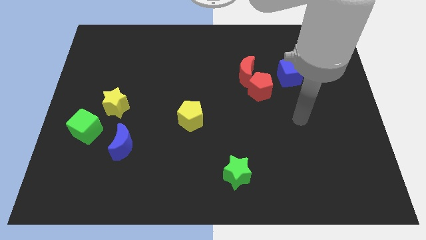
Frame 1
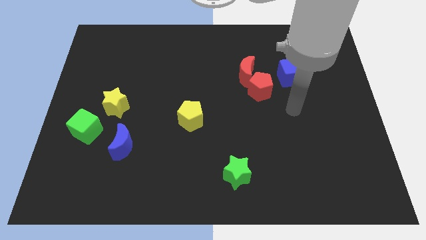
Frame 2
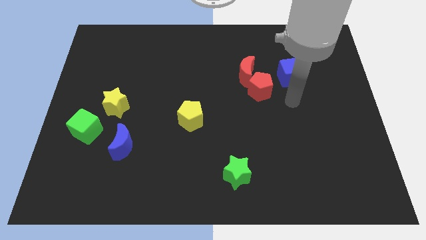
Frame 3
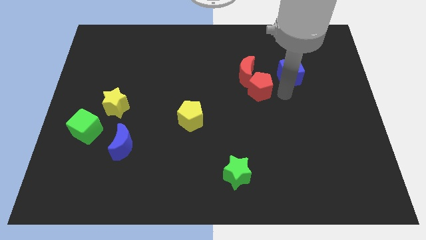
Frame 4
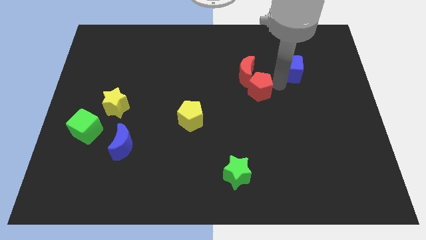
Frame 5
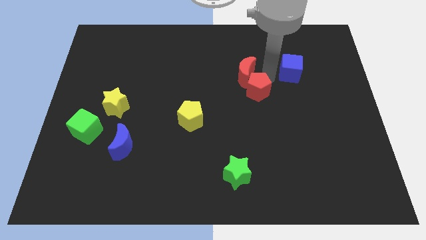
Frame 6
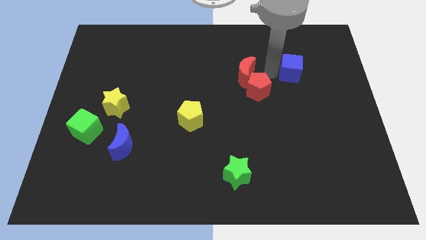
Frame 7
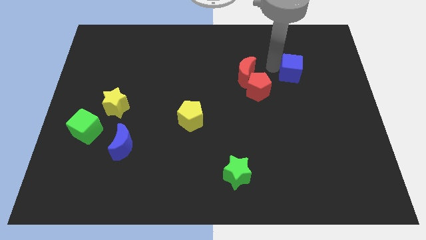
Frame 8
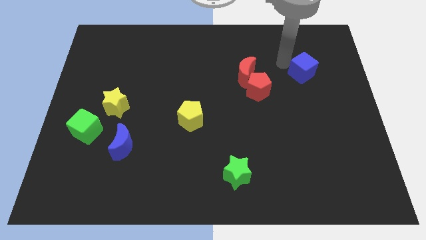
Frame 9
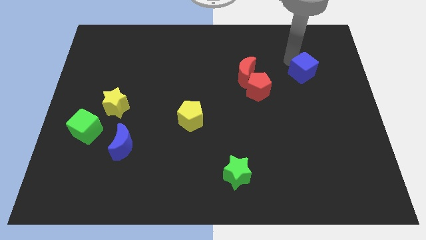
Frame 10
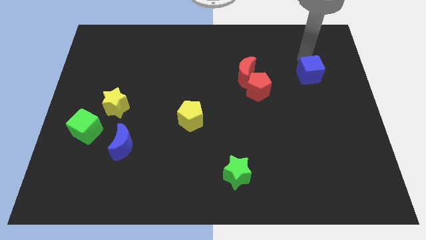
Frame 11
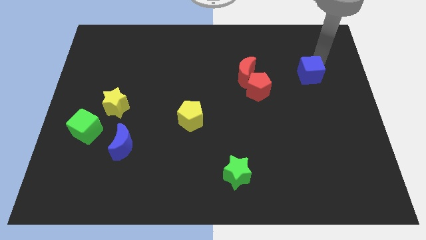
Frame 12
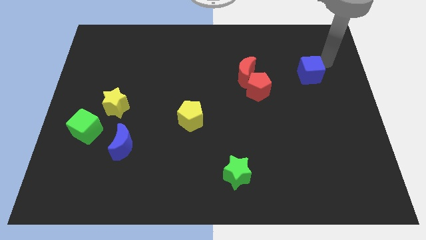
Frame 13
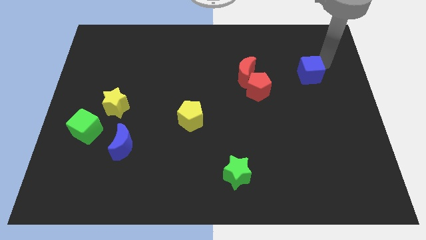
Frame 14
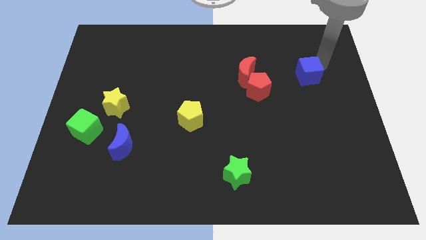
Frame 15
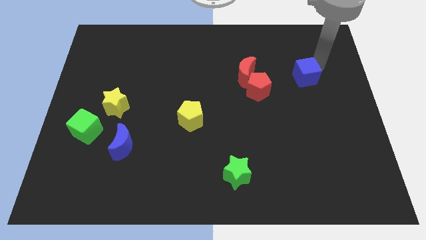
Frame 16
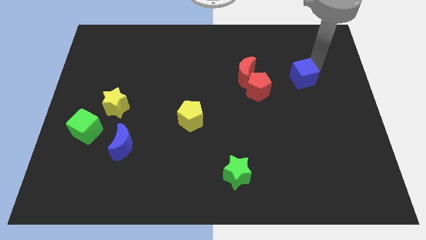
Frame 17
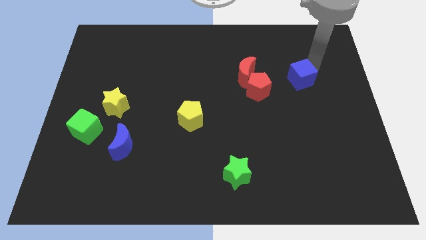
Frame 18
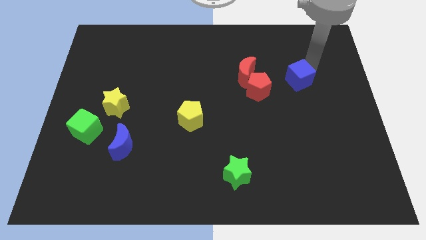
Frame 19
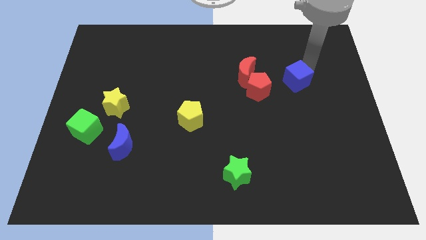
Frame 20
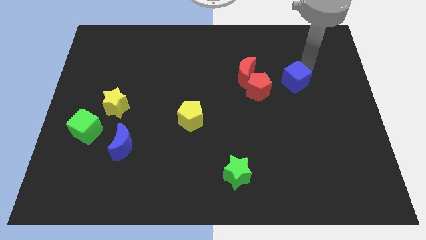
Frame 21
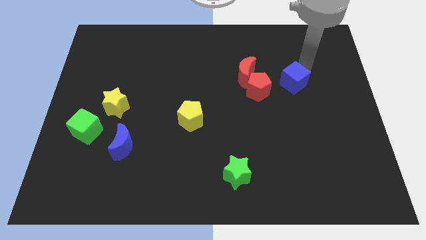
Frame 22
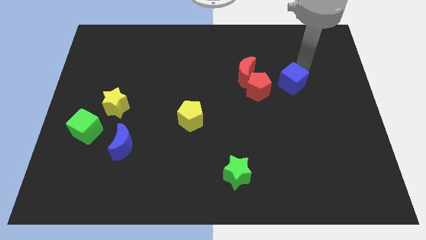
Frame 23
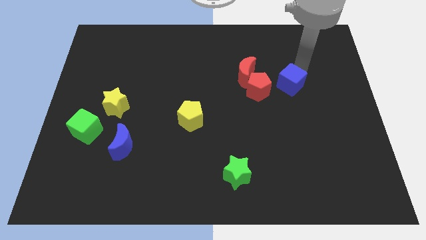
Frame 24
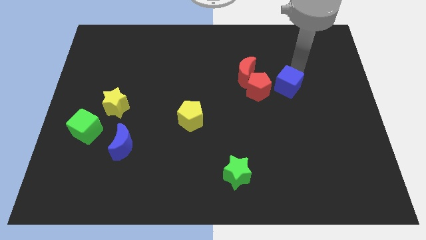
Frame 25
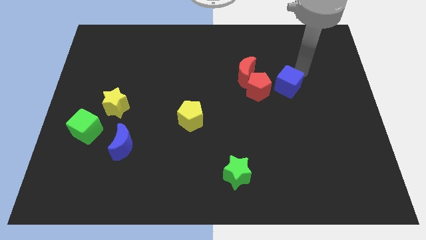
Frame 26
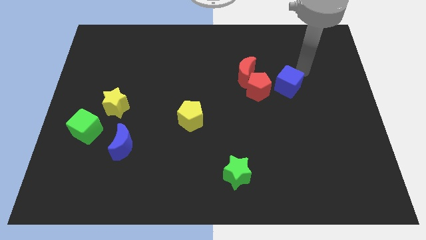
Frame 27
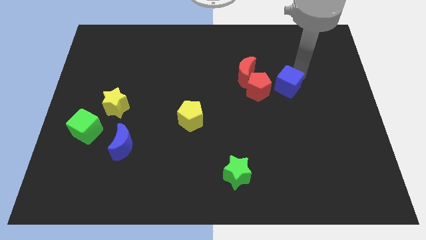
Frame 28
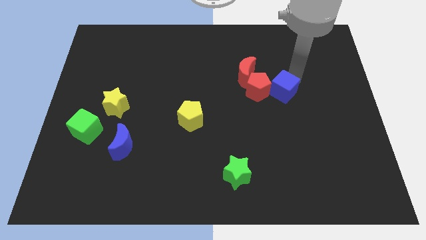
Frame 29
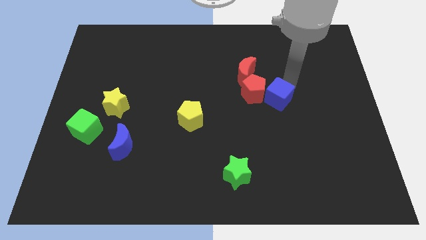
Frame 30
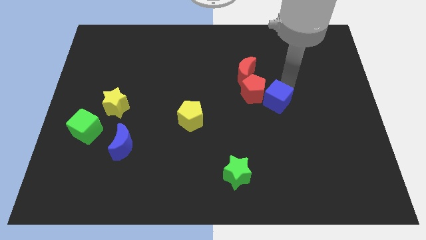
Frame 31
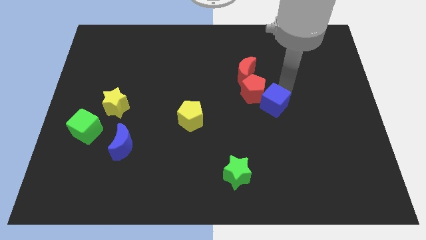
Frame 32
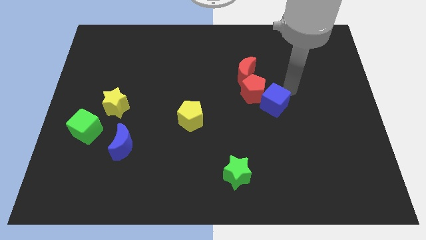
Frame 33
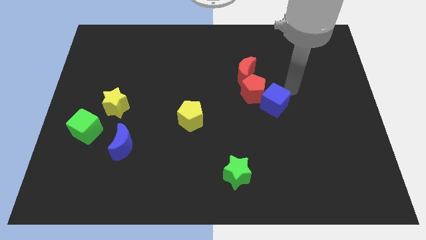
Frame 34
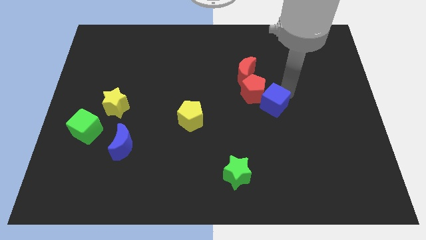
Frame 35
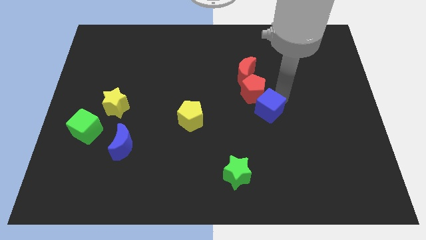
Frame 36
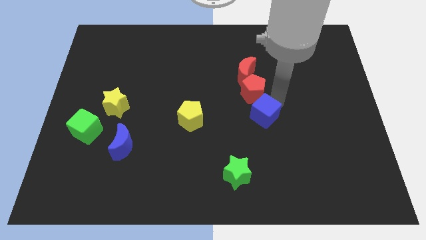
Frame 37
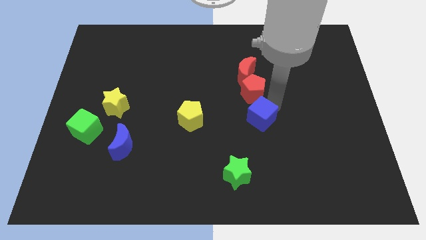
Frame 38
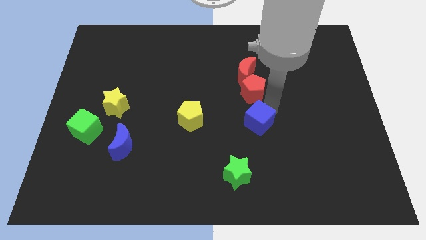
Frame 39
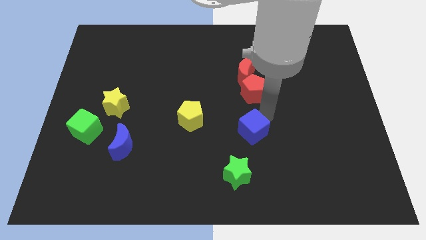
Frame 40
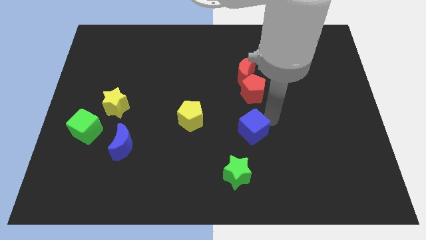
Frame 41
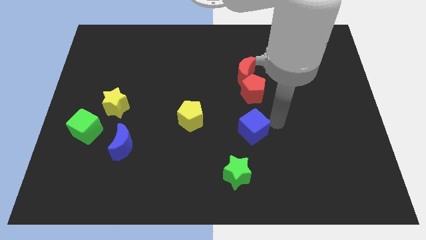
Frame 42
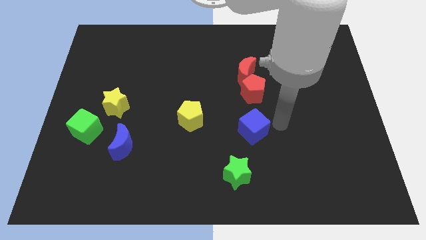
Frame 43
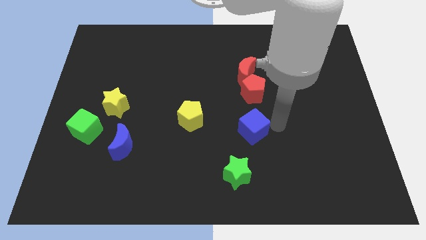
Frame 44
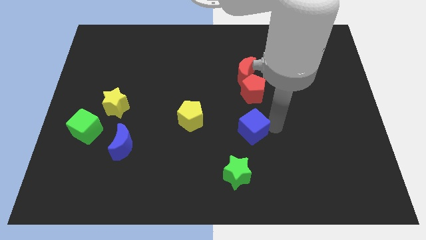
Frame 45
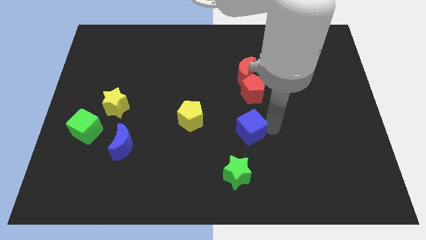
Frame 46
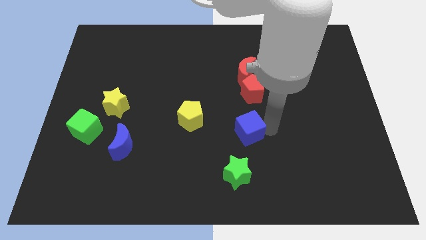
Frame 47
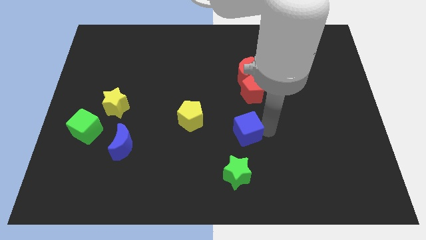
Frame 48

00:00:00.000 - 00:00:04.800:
push the blue cube down and left diagonally

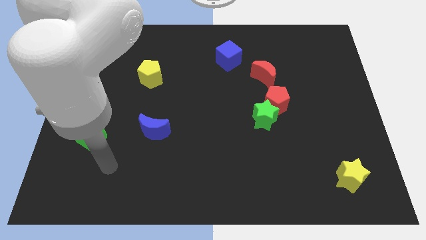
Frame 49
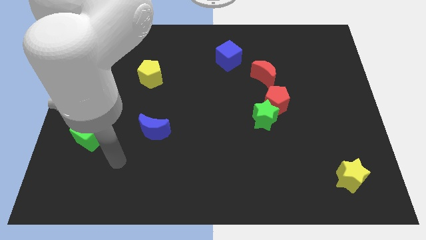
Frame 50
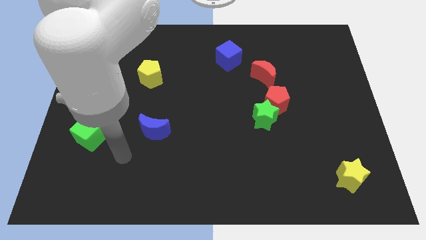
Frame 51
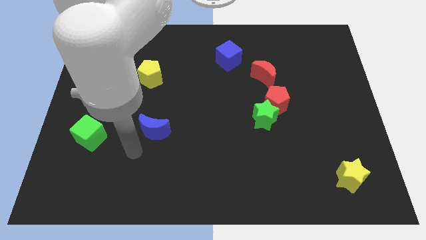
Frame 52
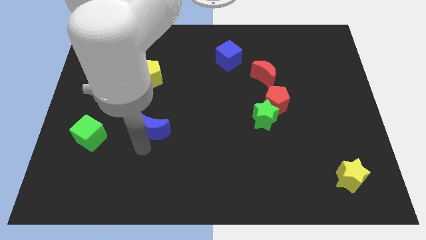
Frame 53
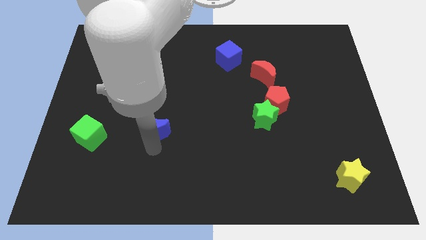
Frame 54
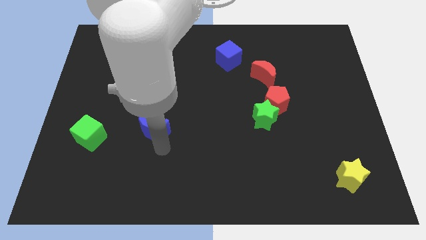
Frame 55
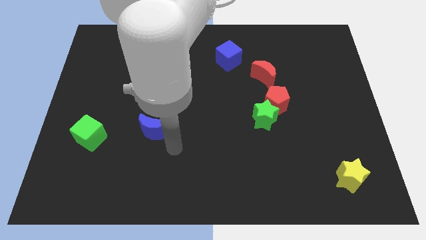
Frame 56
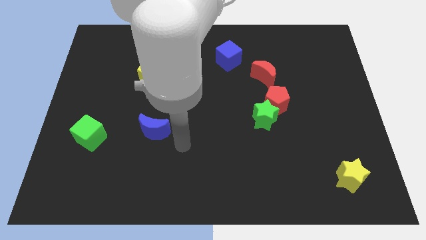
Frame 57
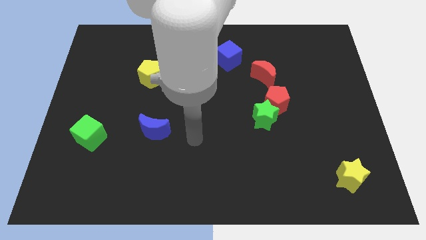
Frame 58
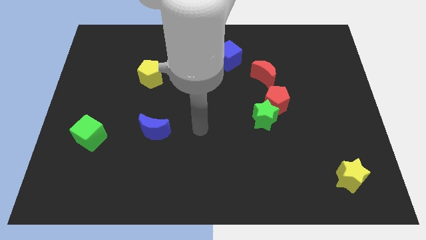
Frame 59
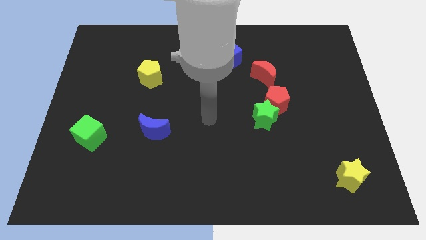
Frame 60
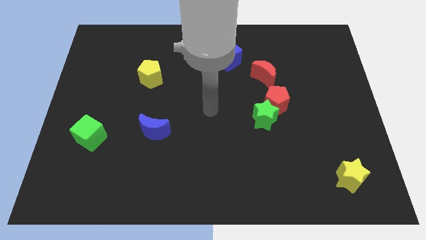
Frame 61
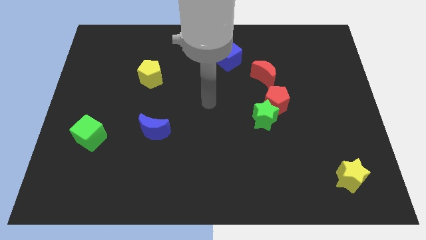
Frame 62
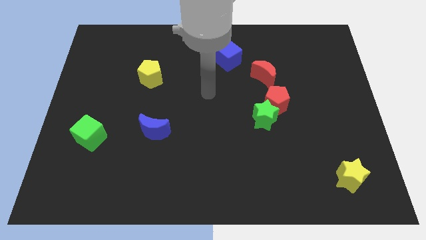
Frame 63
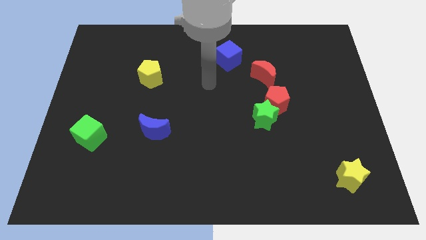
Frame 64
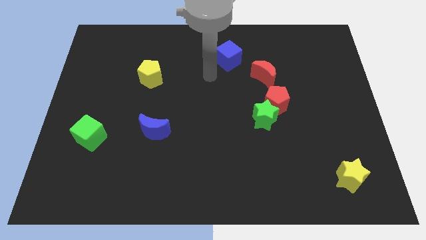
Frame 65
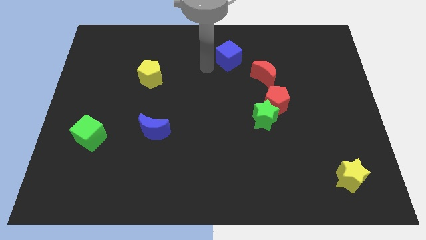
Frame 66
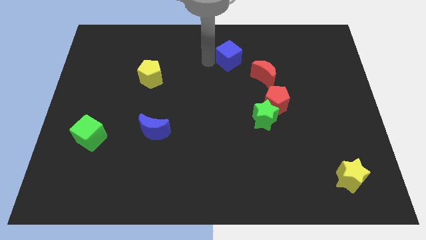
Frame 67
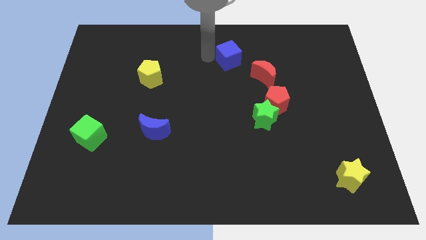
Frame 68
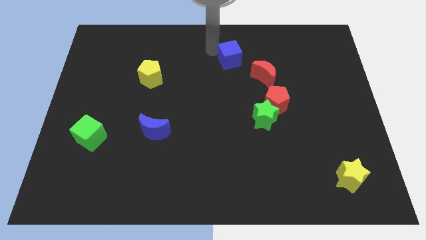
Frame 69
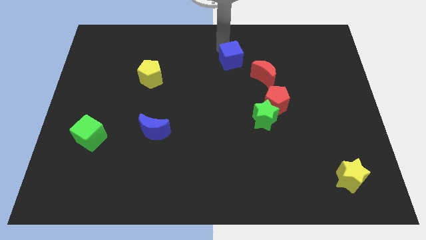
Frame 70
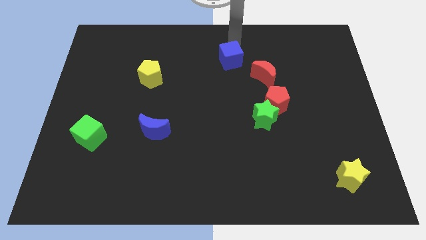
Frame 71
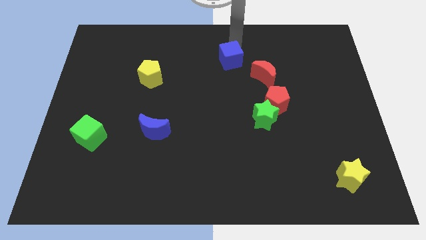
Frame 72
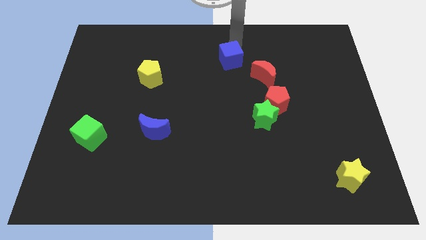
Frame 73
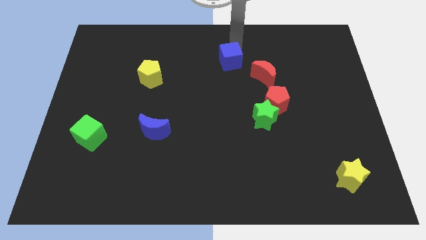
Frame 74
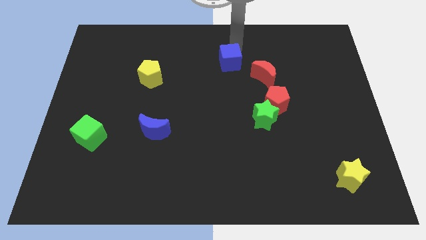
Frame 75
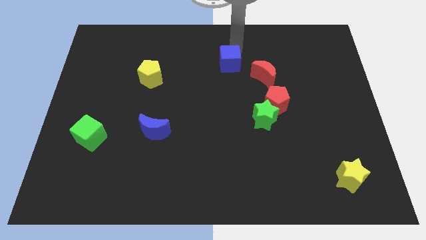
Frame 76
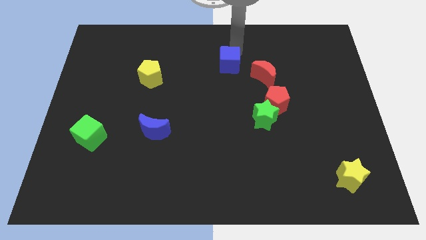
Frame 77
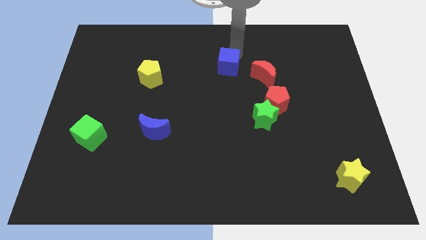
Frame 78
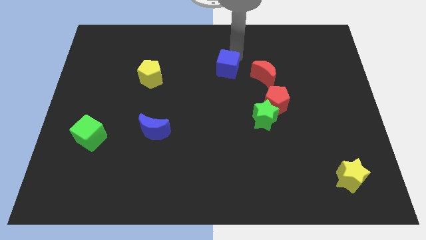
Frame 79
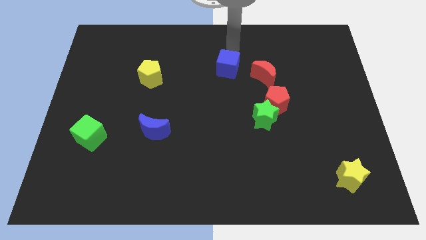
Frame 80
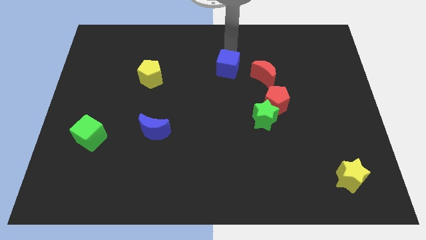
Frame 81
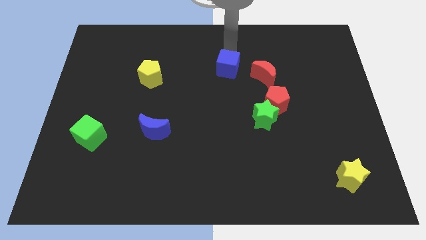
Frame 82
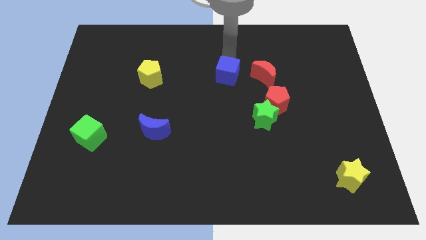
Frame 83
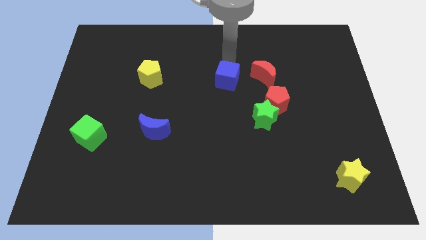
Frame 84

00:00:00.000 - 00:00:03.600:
push the blue cube a little downwards
